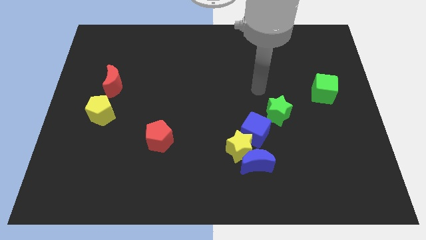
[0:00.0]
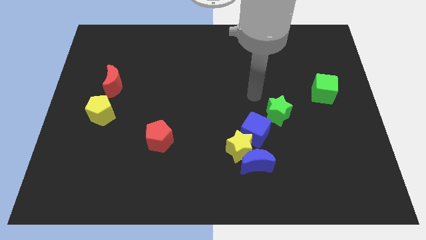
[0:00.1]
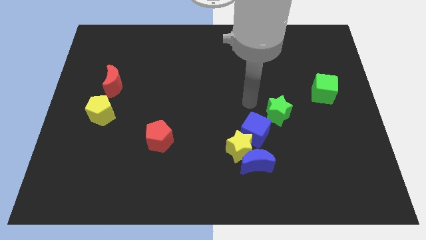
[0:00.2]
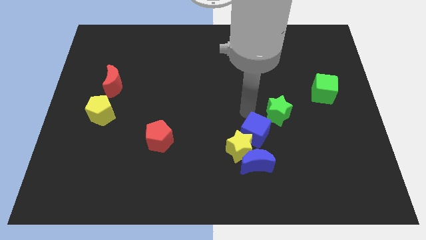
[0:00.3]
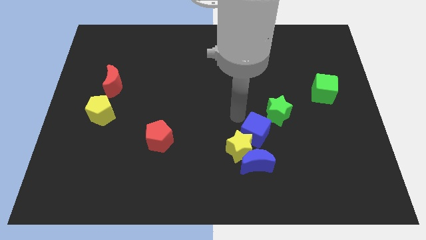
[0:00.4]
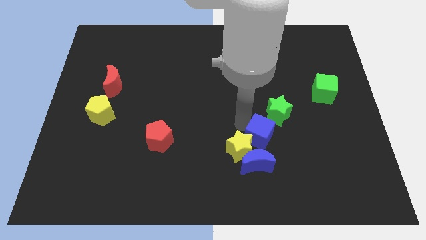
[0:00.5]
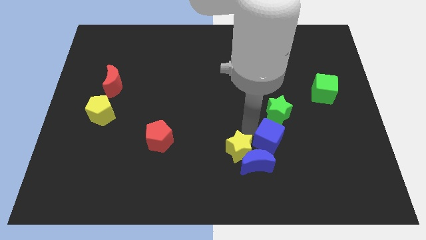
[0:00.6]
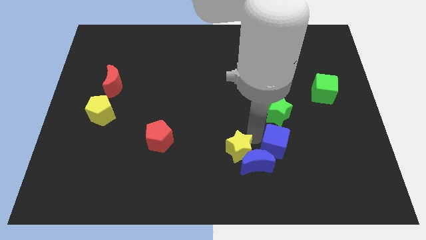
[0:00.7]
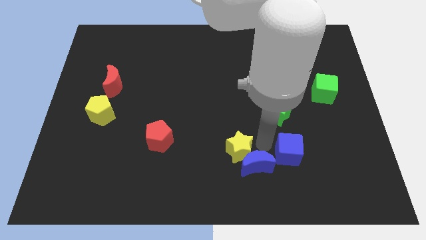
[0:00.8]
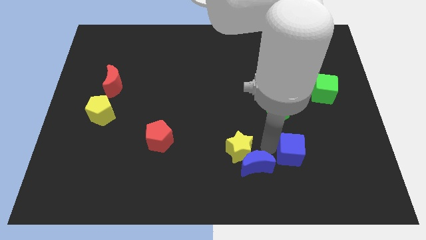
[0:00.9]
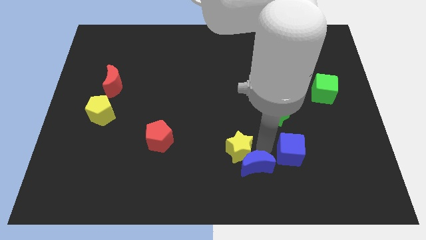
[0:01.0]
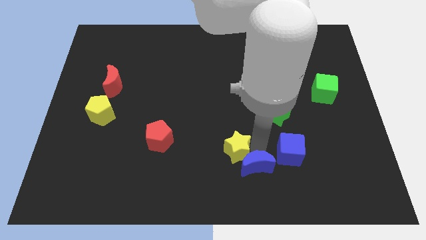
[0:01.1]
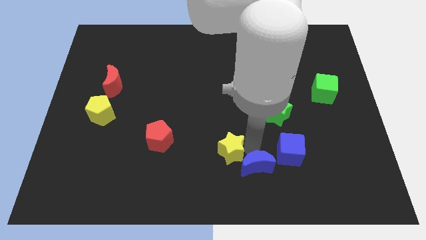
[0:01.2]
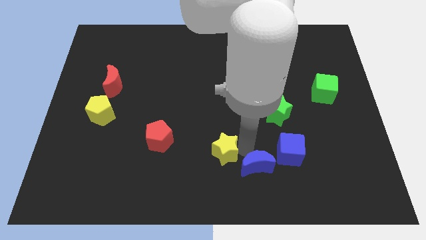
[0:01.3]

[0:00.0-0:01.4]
pull the yellow star apart from the blue moon and blue cube

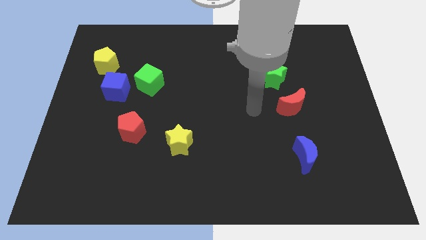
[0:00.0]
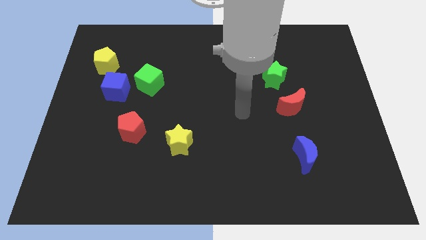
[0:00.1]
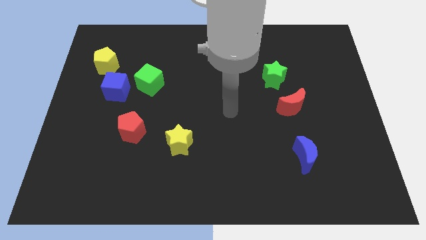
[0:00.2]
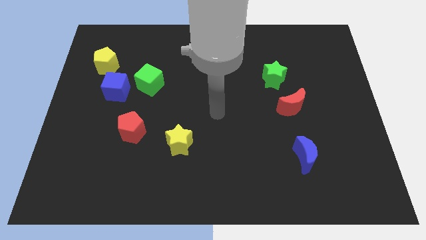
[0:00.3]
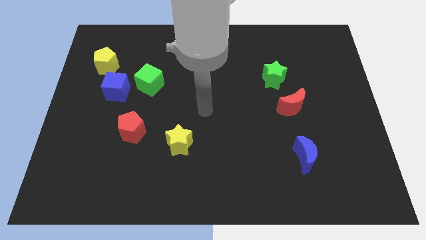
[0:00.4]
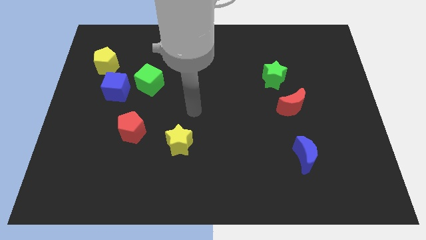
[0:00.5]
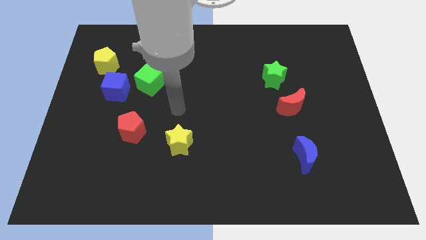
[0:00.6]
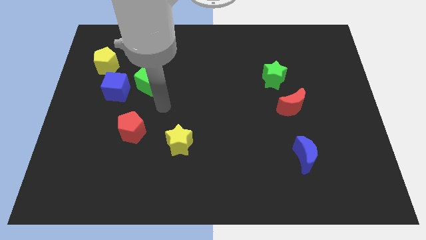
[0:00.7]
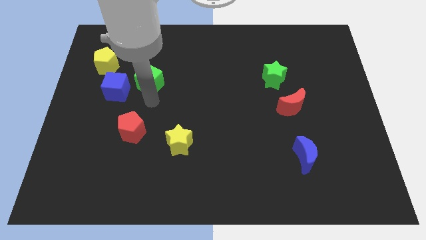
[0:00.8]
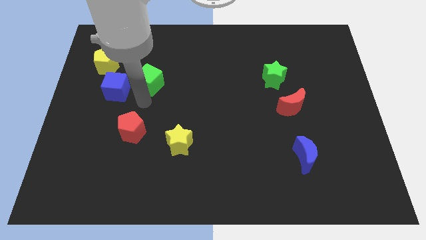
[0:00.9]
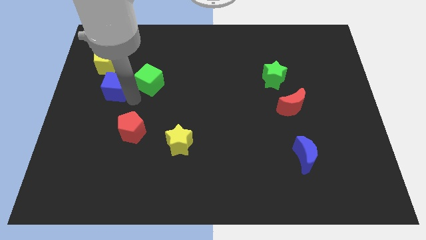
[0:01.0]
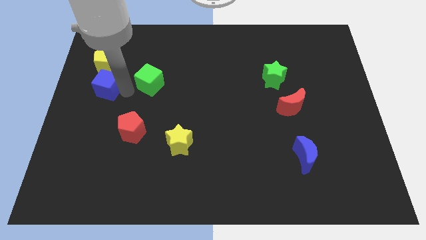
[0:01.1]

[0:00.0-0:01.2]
move the green cube away from the blue cube

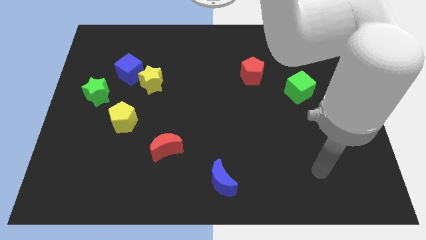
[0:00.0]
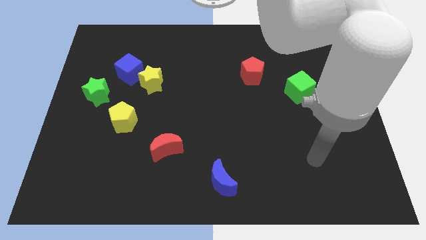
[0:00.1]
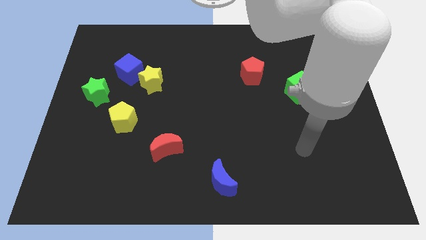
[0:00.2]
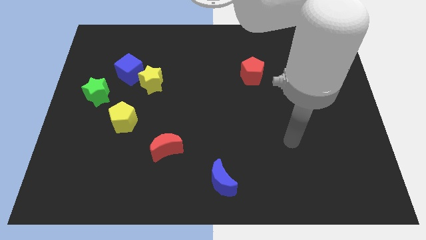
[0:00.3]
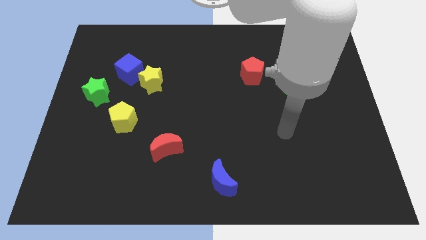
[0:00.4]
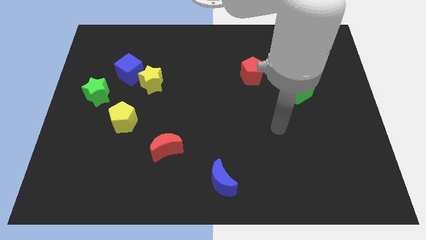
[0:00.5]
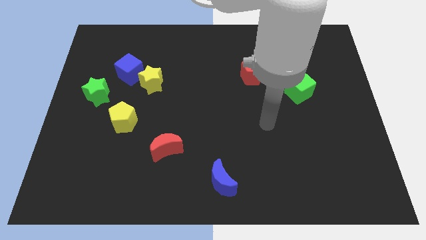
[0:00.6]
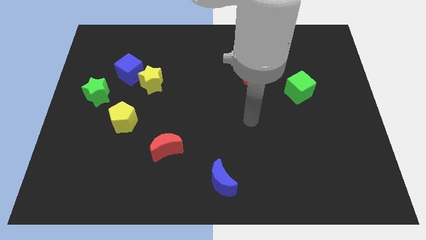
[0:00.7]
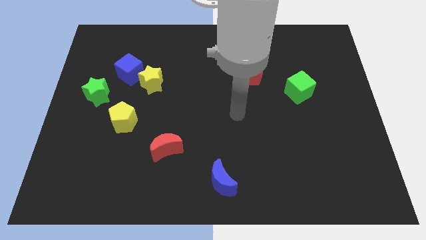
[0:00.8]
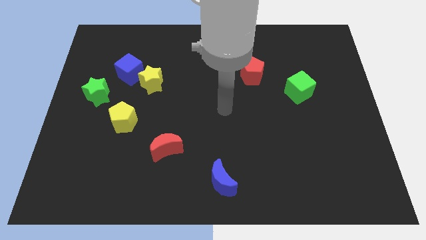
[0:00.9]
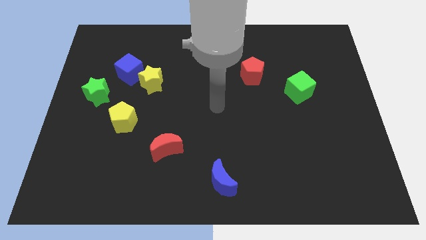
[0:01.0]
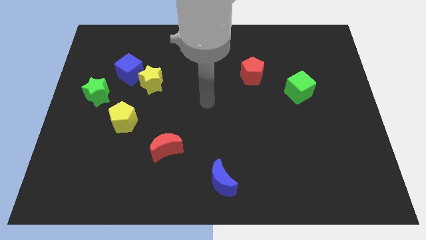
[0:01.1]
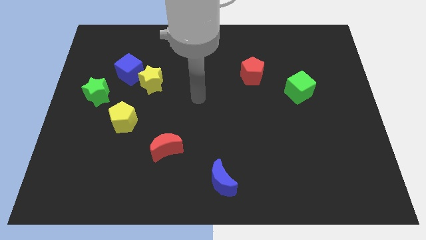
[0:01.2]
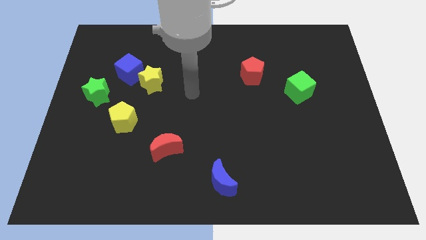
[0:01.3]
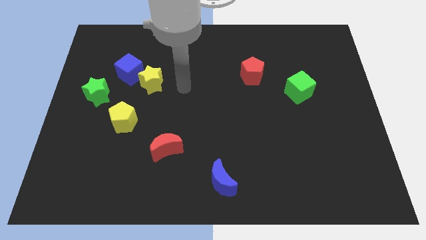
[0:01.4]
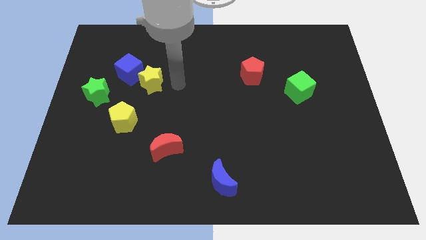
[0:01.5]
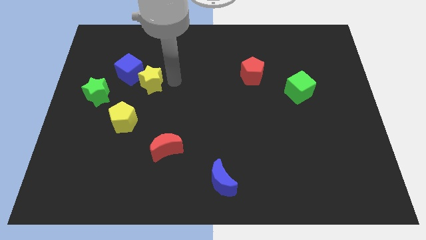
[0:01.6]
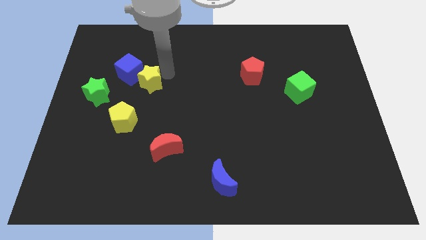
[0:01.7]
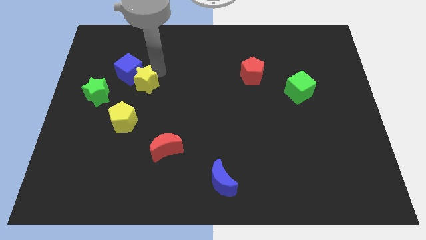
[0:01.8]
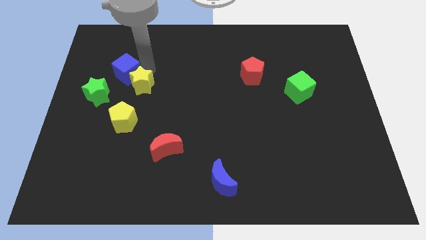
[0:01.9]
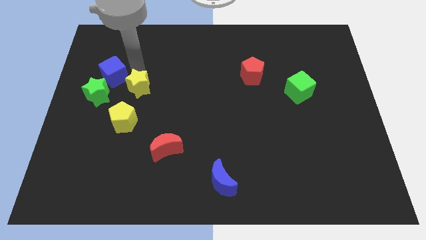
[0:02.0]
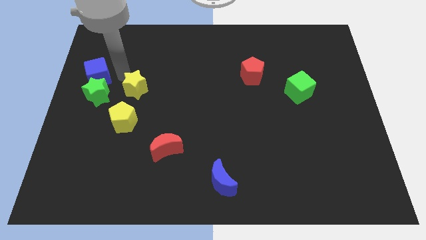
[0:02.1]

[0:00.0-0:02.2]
pull the yellow star apart from the blue cube

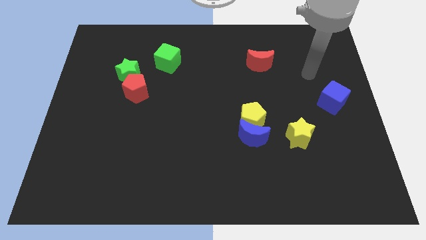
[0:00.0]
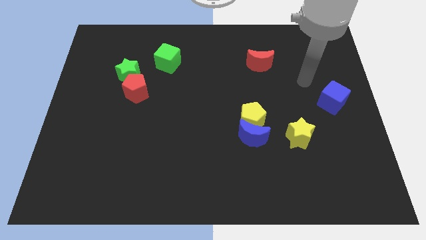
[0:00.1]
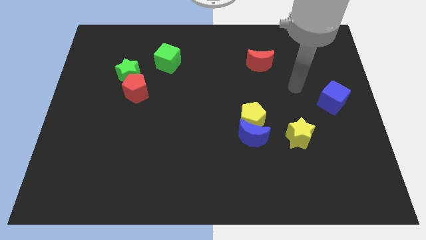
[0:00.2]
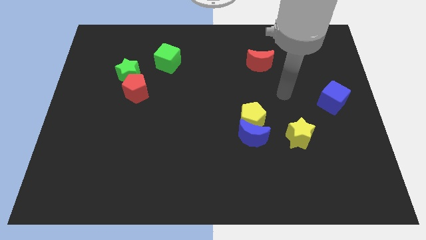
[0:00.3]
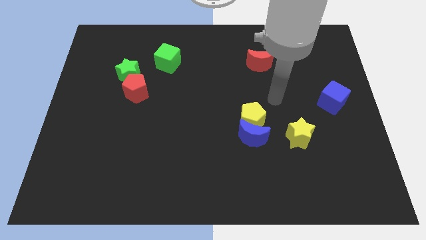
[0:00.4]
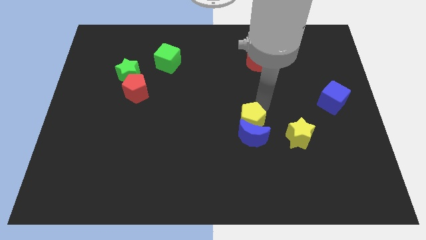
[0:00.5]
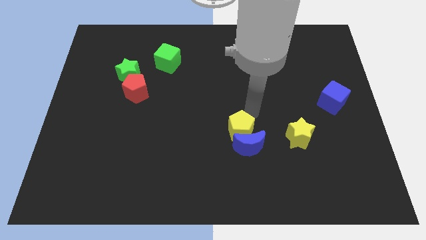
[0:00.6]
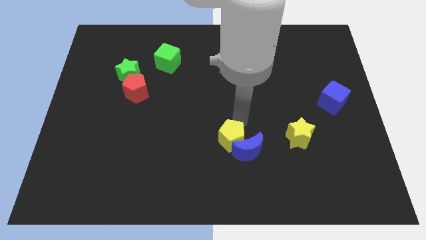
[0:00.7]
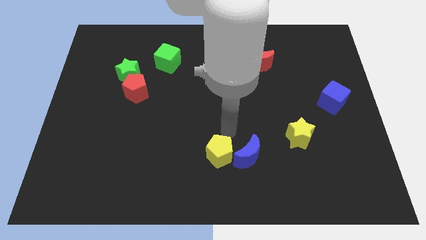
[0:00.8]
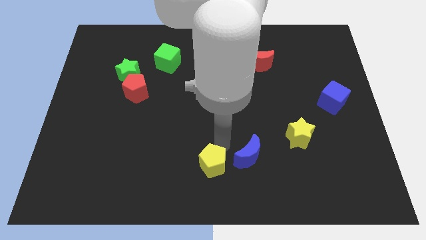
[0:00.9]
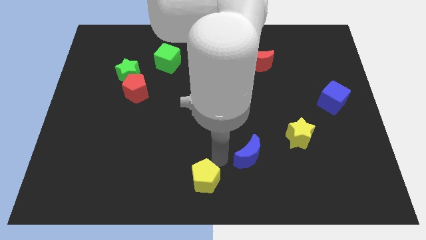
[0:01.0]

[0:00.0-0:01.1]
separate the blue moon from the yellow pentagon

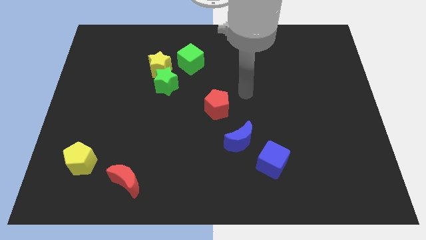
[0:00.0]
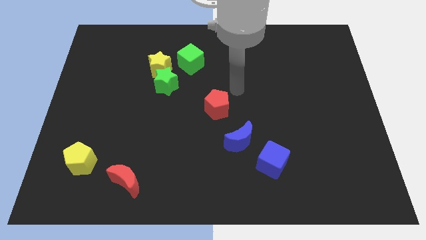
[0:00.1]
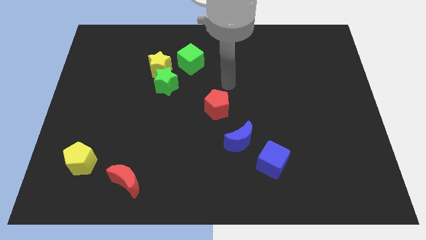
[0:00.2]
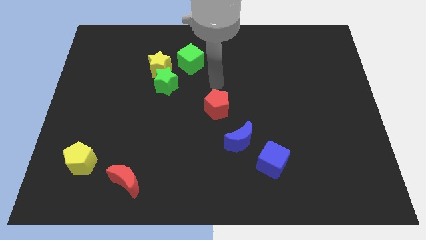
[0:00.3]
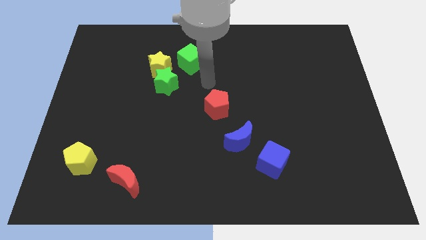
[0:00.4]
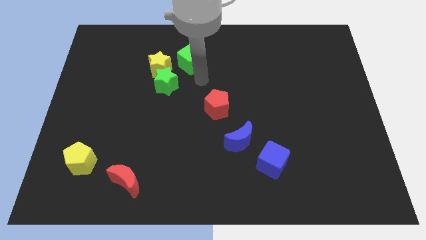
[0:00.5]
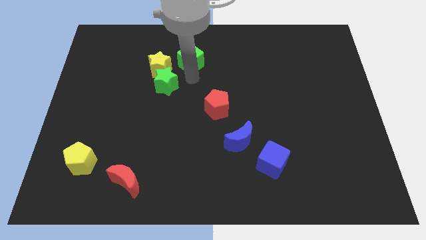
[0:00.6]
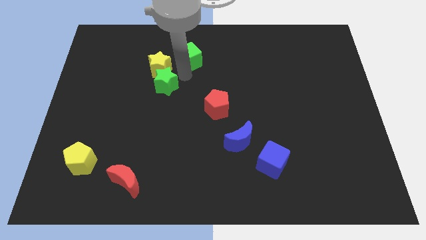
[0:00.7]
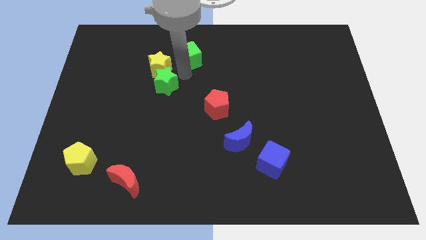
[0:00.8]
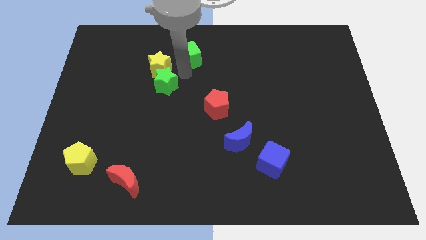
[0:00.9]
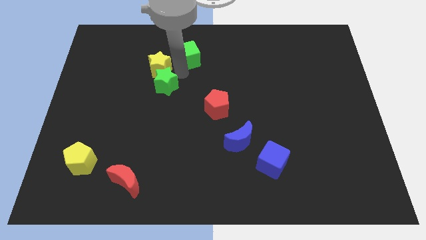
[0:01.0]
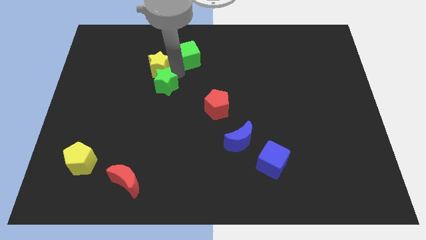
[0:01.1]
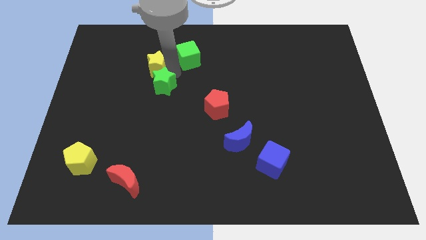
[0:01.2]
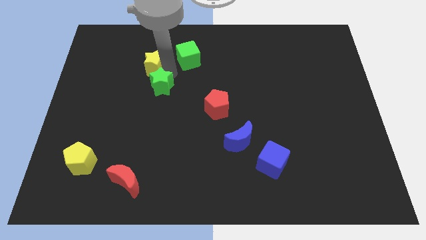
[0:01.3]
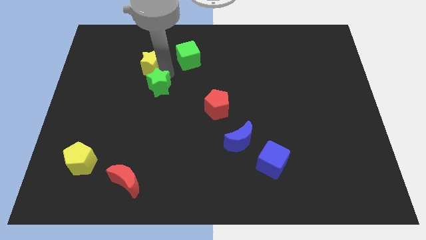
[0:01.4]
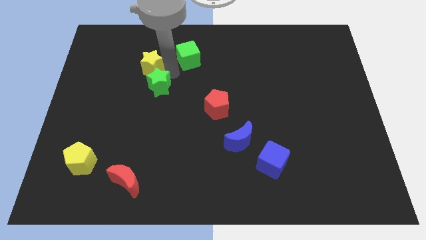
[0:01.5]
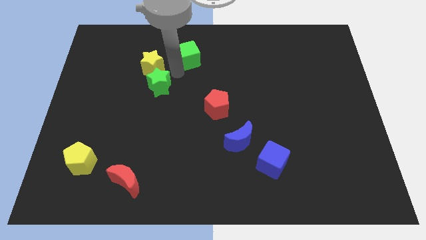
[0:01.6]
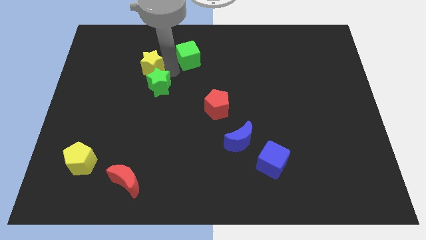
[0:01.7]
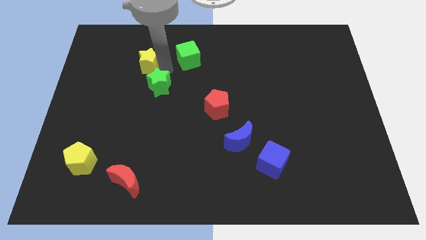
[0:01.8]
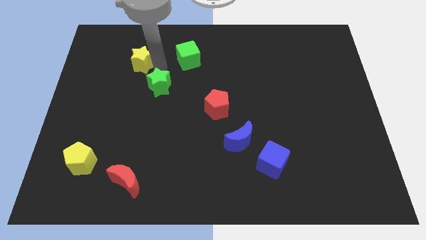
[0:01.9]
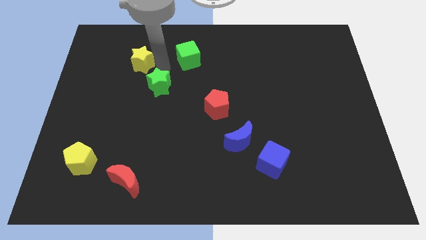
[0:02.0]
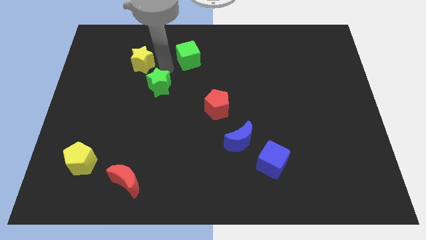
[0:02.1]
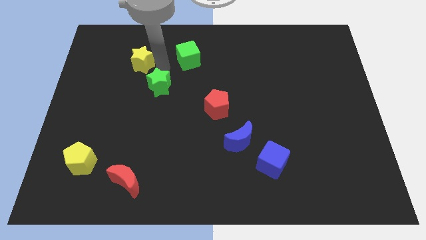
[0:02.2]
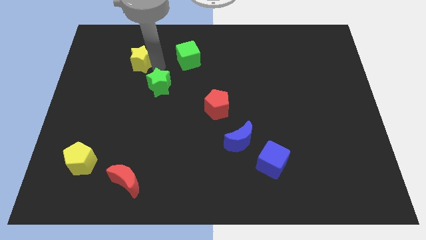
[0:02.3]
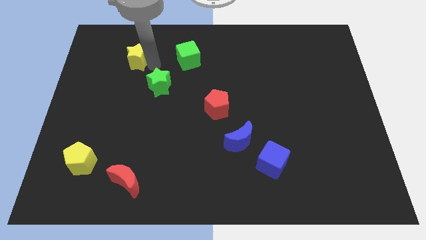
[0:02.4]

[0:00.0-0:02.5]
pull the yellow star apart from the green star and green cube

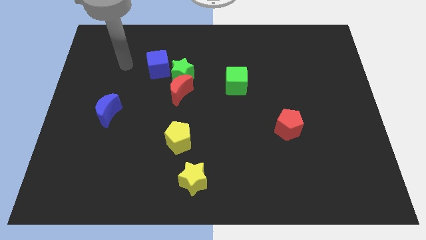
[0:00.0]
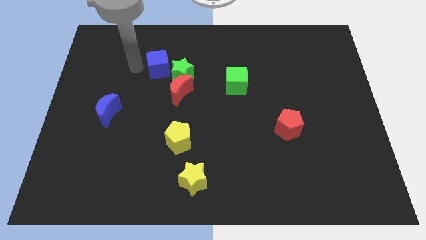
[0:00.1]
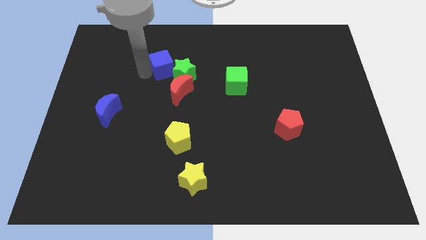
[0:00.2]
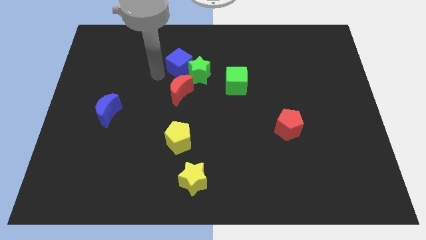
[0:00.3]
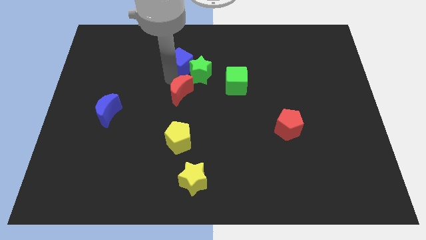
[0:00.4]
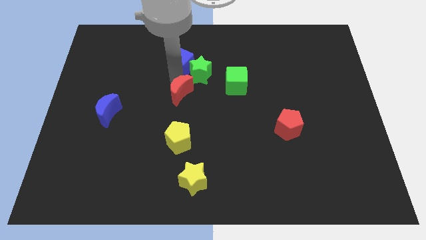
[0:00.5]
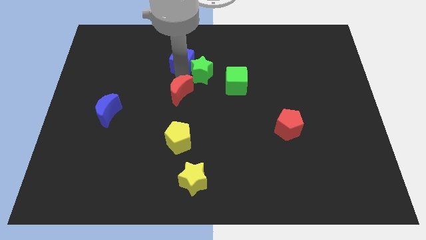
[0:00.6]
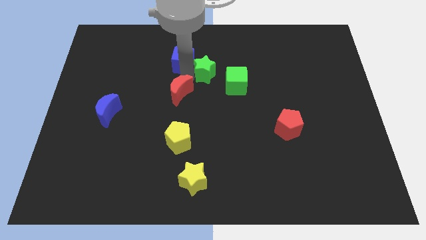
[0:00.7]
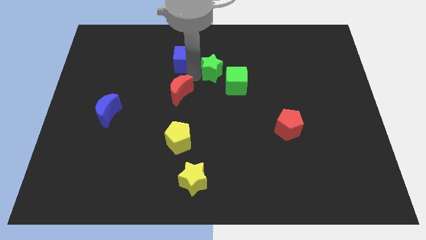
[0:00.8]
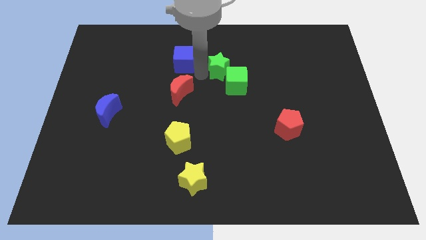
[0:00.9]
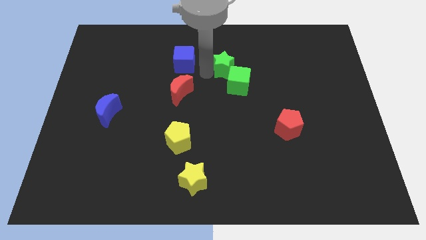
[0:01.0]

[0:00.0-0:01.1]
pull the green star apart from the red moon and blue cube
